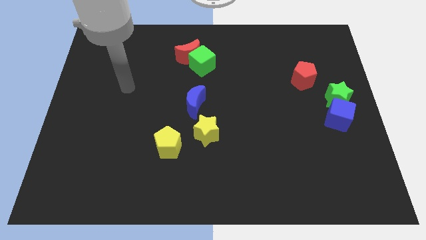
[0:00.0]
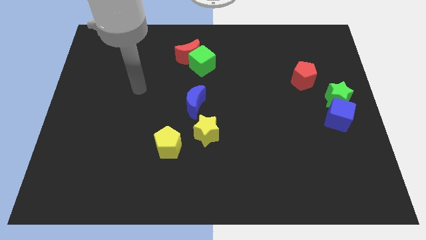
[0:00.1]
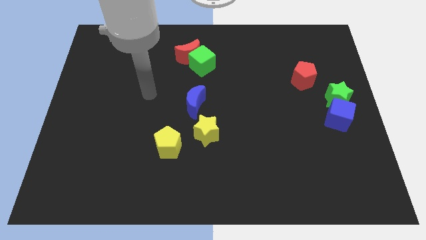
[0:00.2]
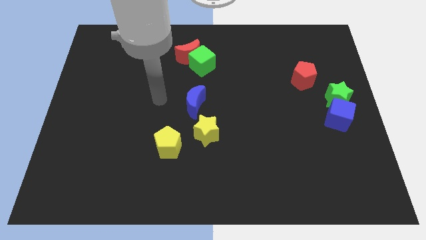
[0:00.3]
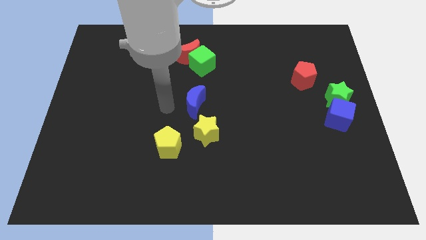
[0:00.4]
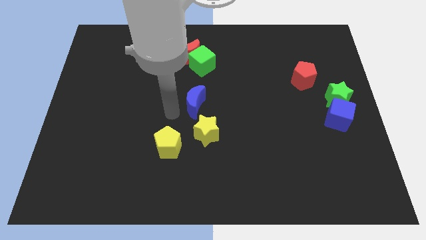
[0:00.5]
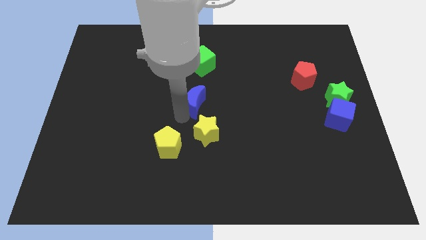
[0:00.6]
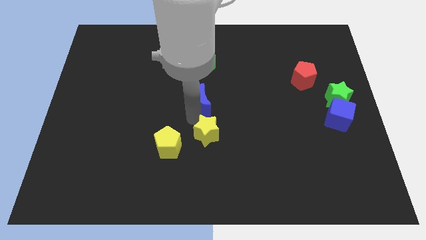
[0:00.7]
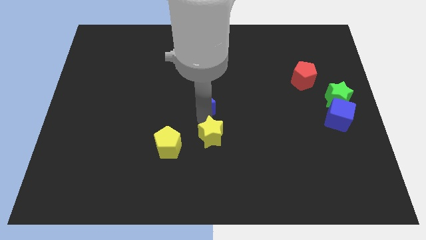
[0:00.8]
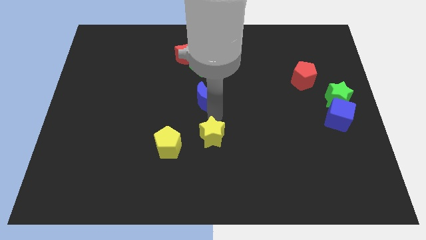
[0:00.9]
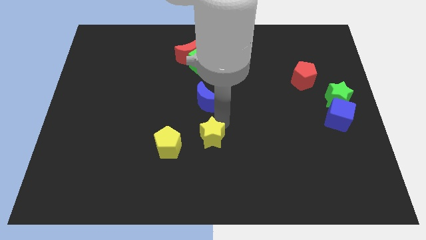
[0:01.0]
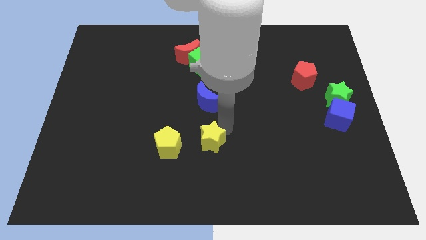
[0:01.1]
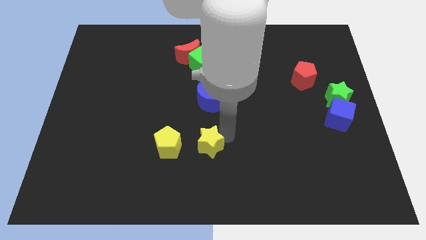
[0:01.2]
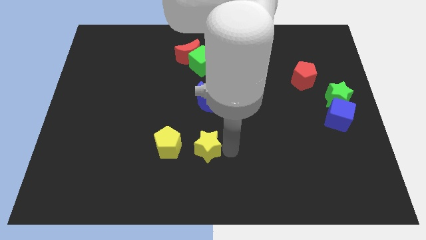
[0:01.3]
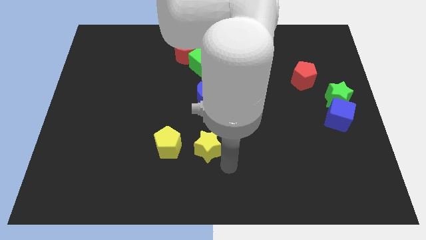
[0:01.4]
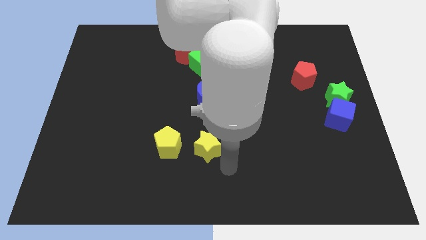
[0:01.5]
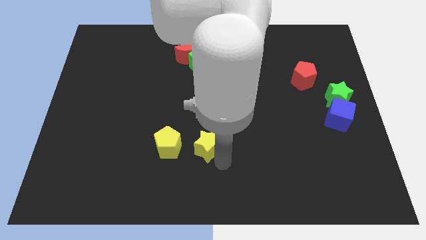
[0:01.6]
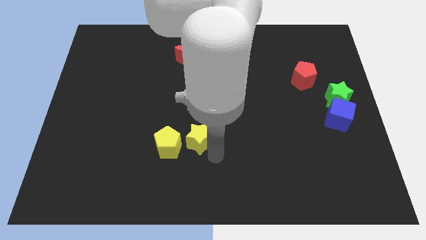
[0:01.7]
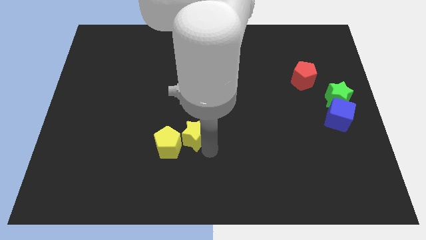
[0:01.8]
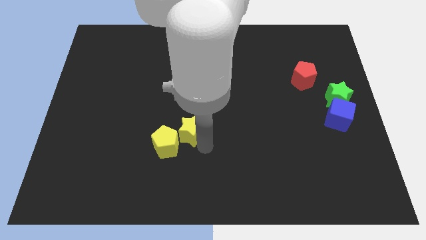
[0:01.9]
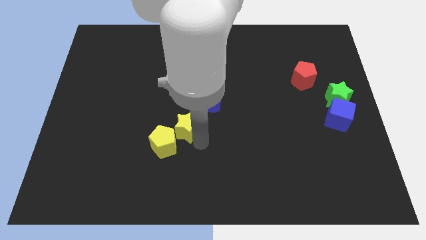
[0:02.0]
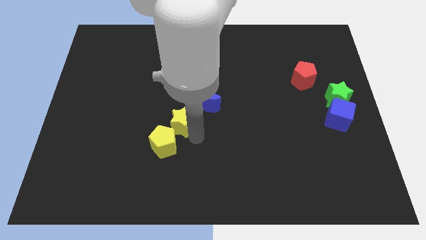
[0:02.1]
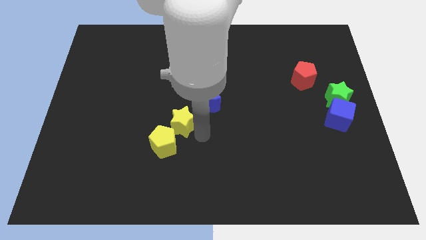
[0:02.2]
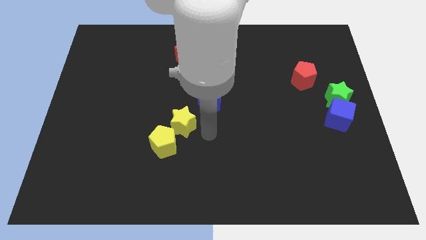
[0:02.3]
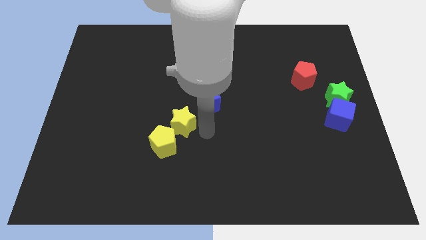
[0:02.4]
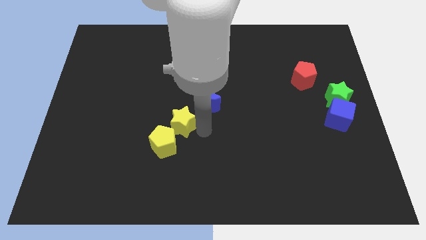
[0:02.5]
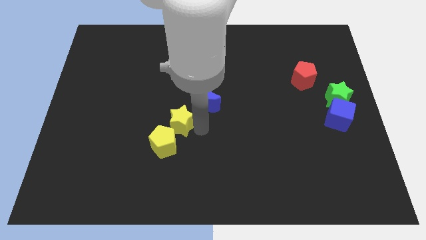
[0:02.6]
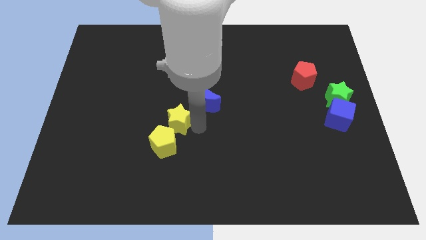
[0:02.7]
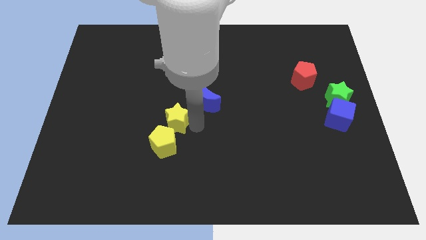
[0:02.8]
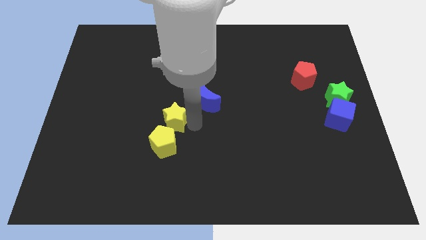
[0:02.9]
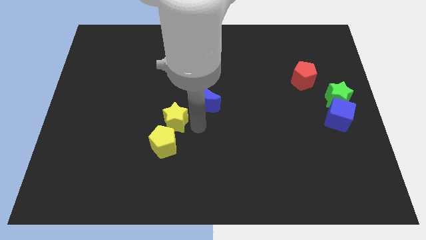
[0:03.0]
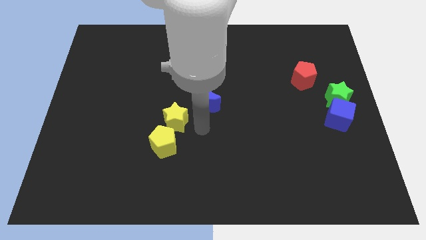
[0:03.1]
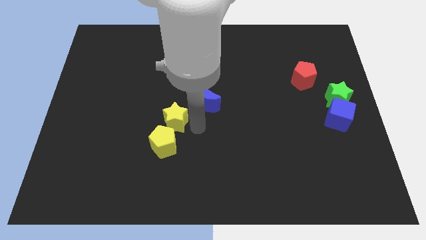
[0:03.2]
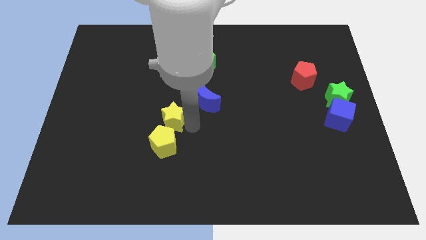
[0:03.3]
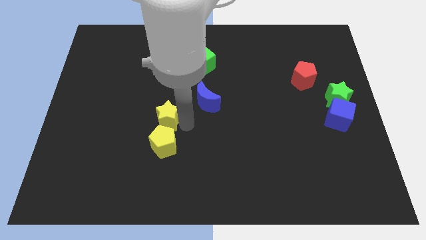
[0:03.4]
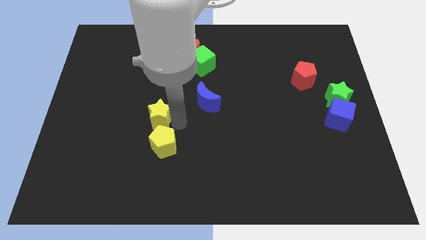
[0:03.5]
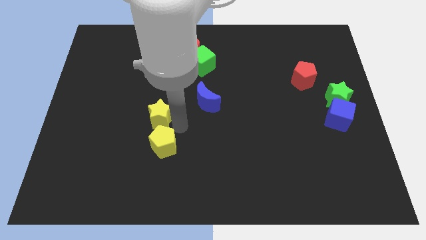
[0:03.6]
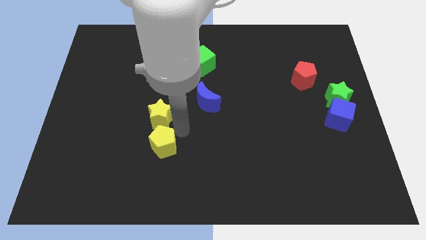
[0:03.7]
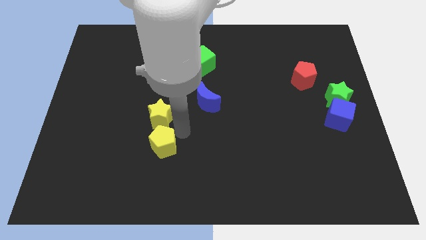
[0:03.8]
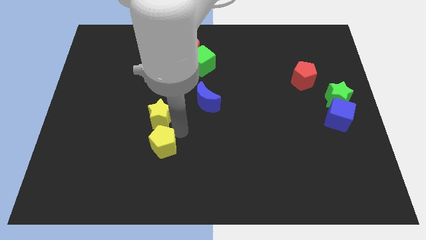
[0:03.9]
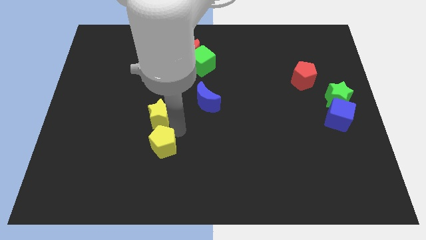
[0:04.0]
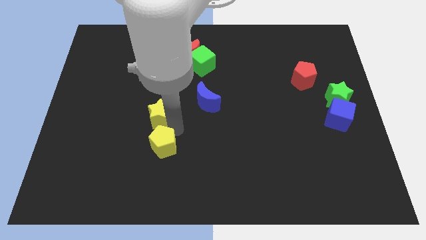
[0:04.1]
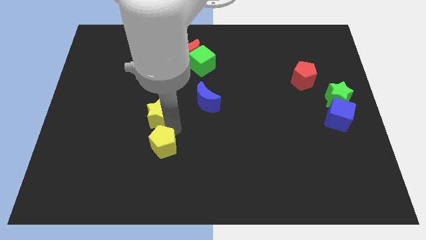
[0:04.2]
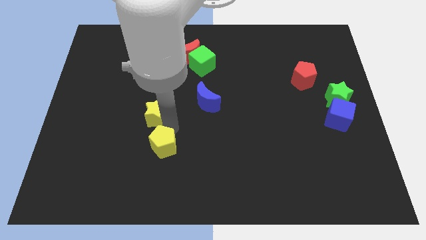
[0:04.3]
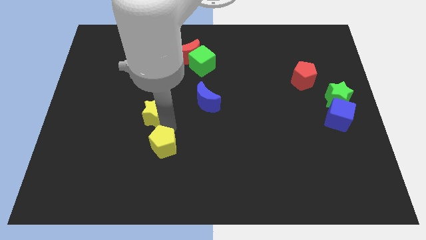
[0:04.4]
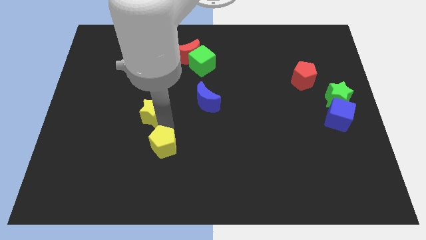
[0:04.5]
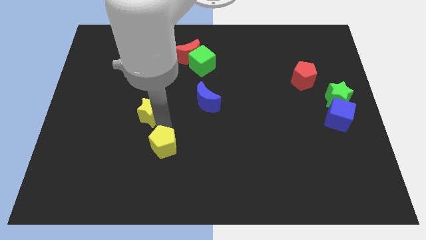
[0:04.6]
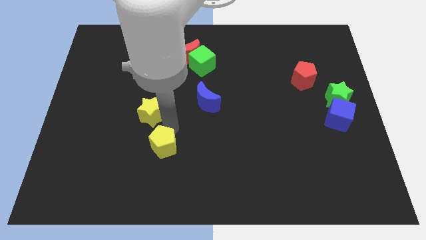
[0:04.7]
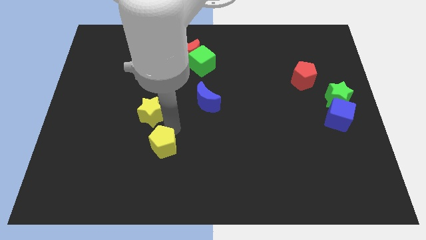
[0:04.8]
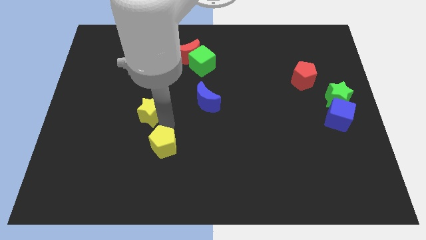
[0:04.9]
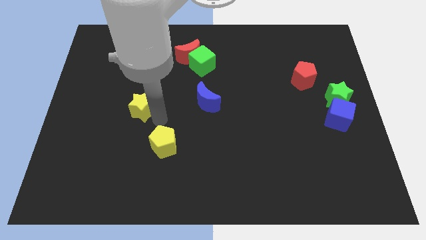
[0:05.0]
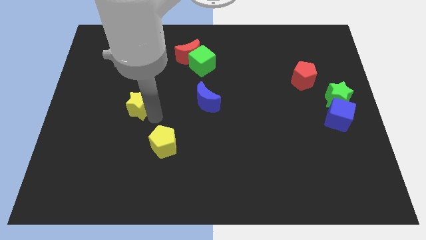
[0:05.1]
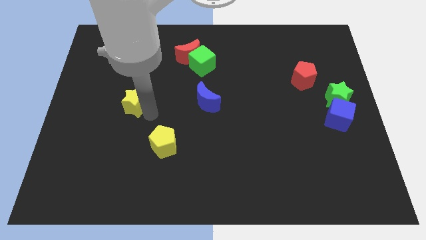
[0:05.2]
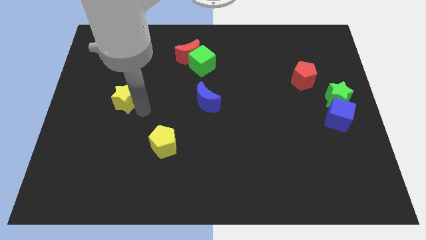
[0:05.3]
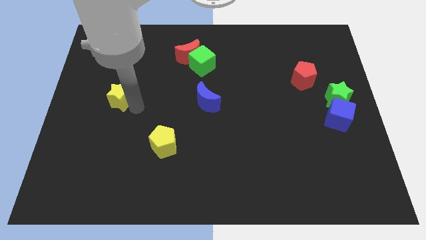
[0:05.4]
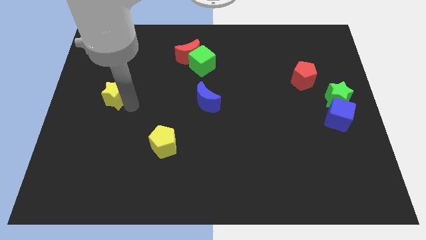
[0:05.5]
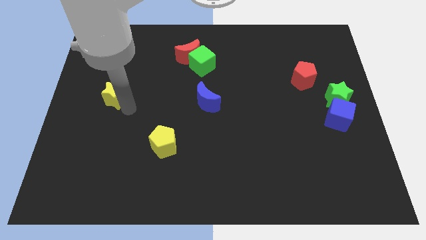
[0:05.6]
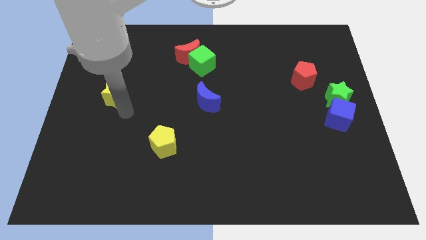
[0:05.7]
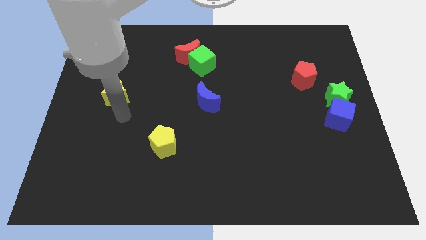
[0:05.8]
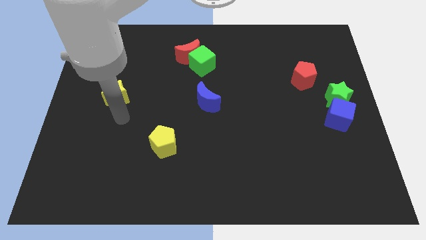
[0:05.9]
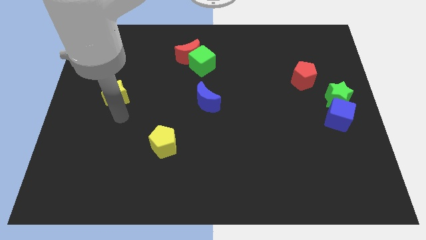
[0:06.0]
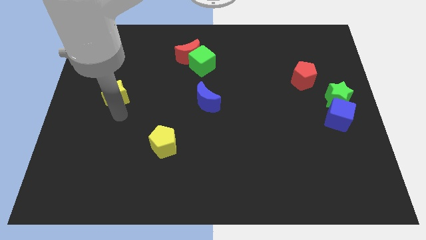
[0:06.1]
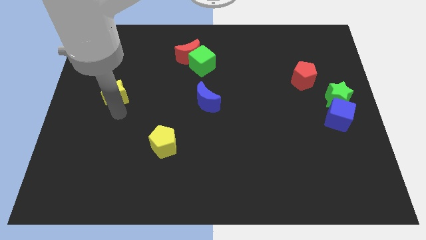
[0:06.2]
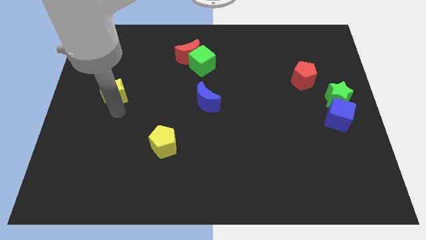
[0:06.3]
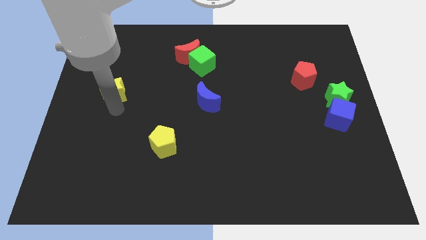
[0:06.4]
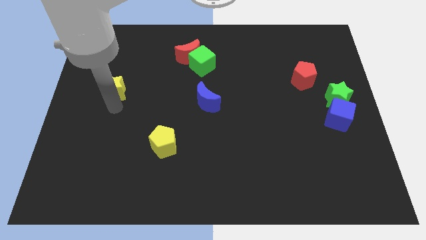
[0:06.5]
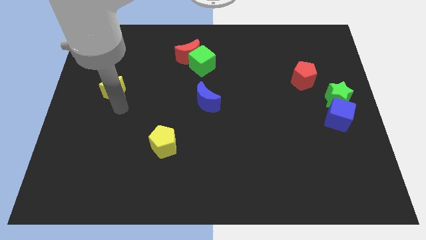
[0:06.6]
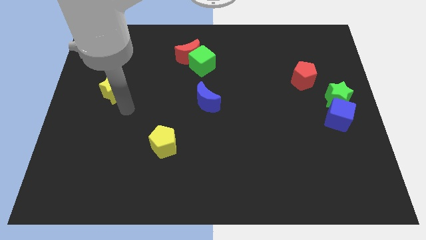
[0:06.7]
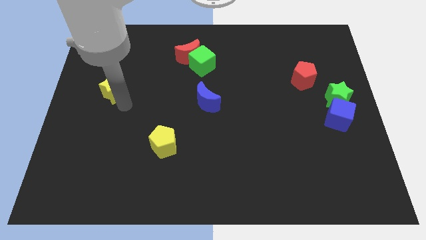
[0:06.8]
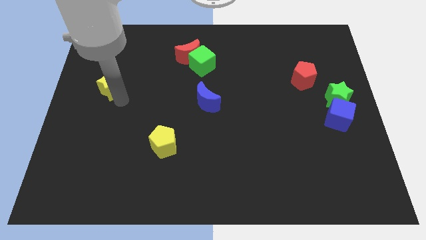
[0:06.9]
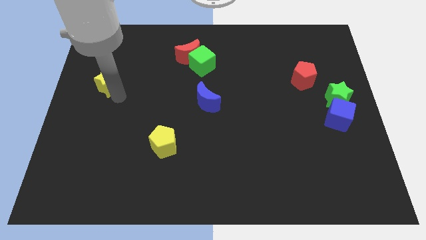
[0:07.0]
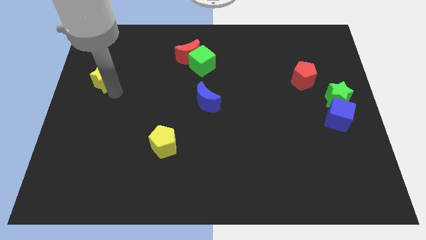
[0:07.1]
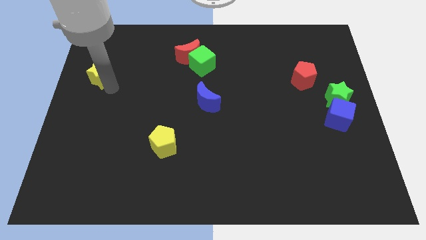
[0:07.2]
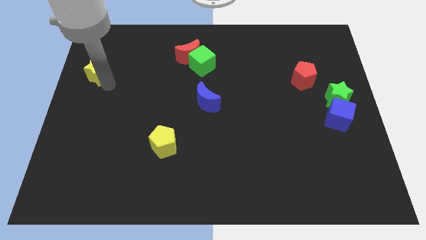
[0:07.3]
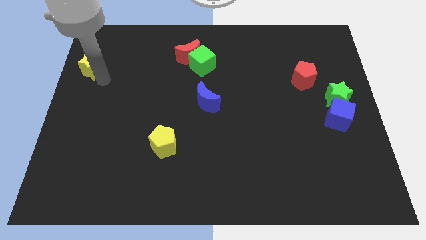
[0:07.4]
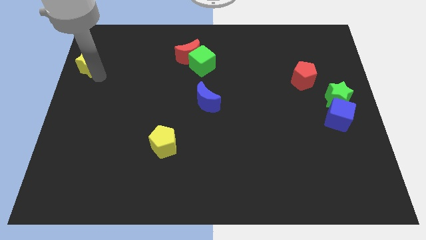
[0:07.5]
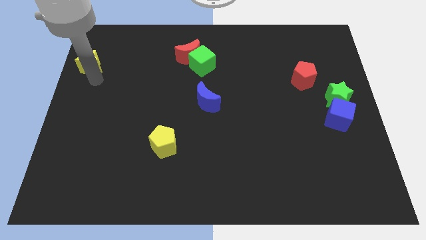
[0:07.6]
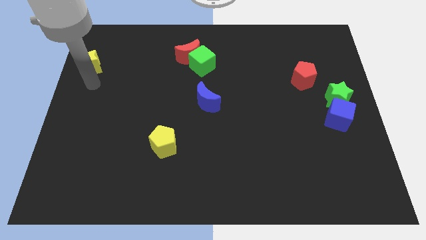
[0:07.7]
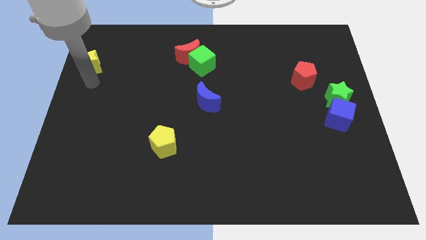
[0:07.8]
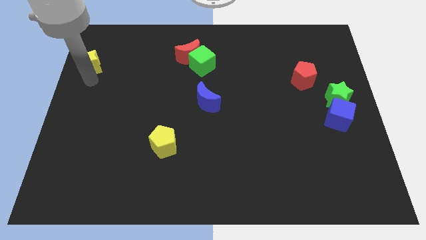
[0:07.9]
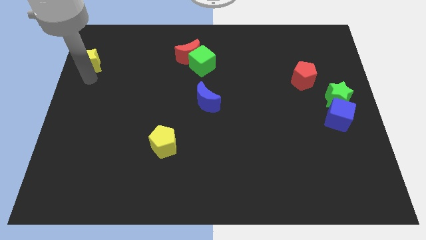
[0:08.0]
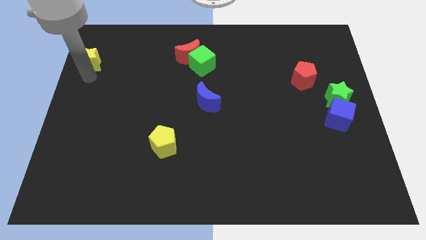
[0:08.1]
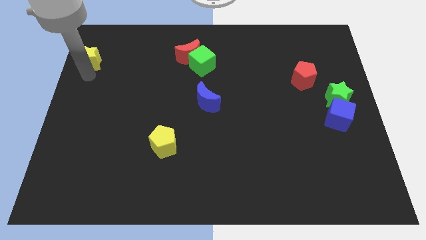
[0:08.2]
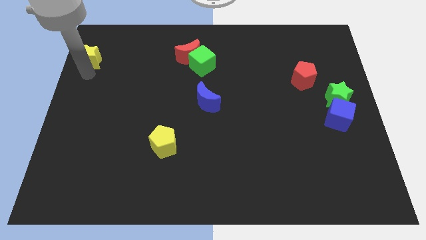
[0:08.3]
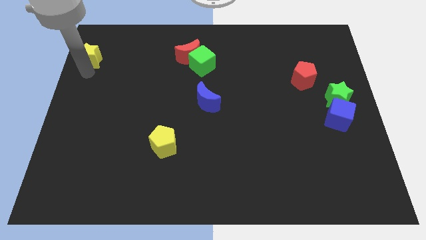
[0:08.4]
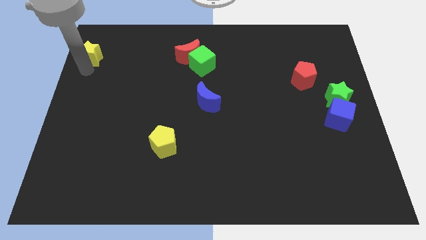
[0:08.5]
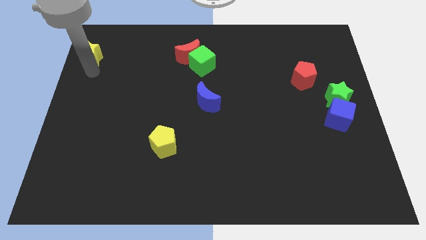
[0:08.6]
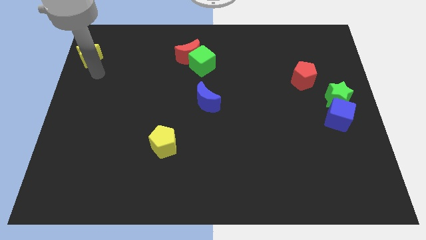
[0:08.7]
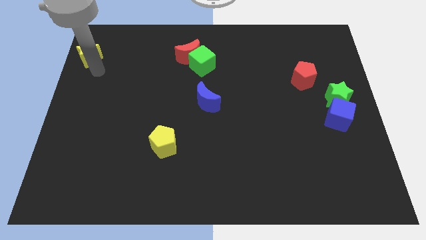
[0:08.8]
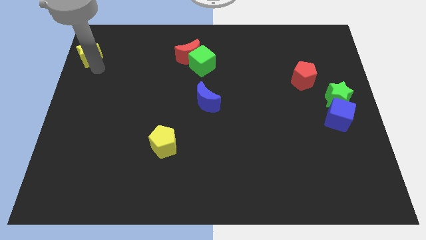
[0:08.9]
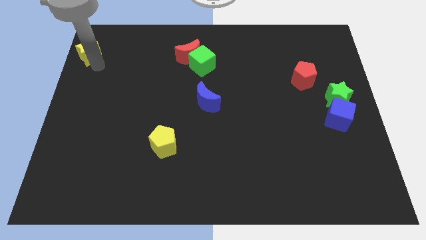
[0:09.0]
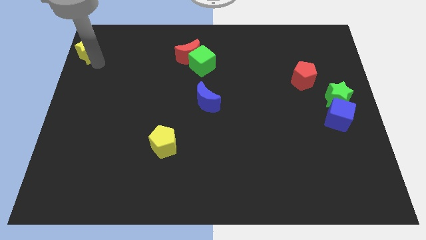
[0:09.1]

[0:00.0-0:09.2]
move the yellow star to the top left of the board
